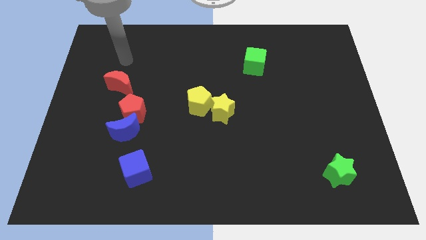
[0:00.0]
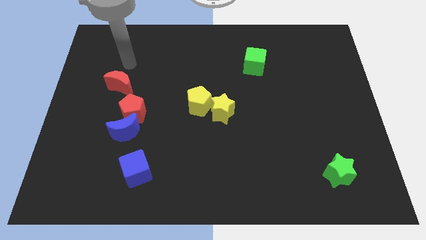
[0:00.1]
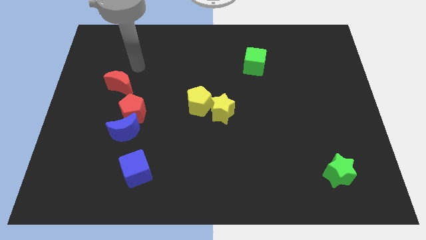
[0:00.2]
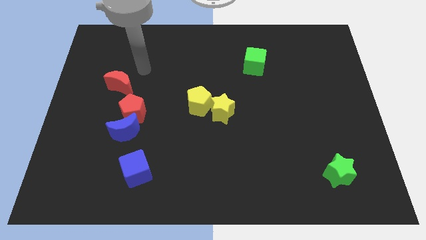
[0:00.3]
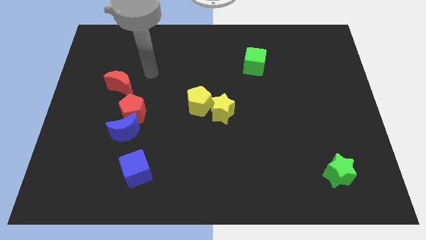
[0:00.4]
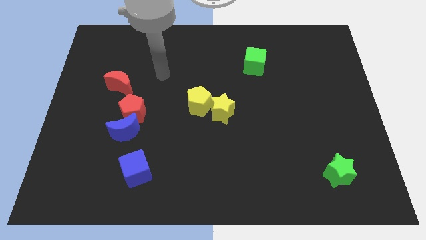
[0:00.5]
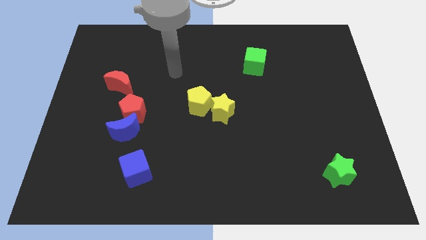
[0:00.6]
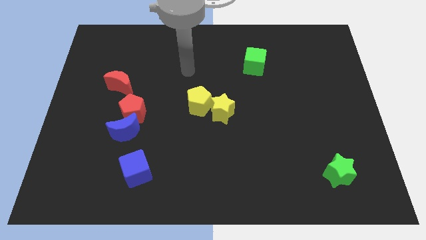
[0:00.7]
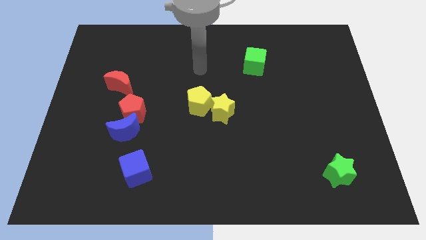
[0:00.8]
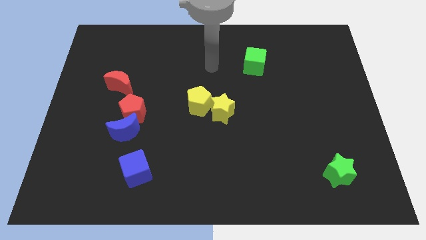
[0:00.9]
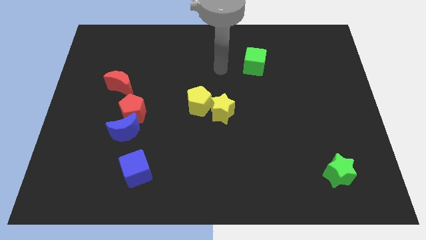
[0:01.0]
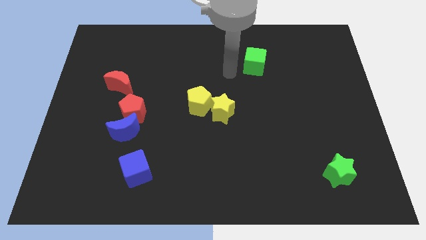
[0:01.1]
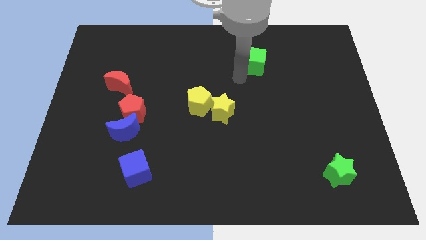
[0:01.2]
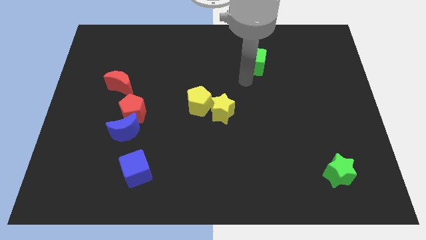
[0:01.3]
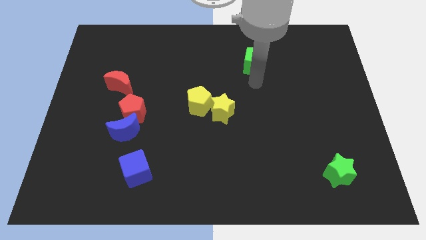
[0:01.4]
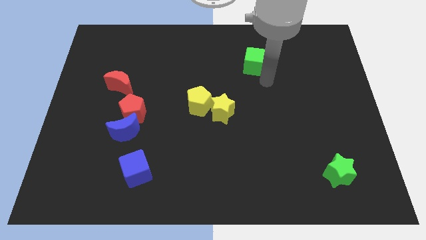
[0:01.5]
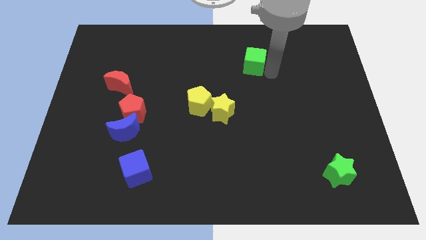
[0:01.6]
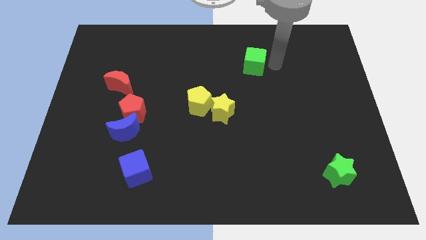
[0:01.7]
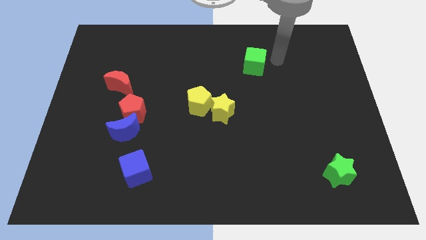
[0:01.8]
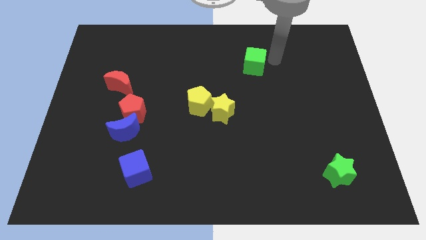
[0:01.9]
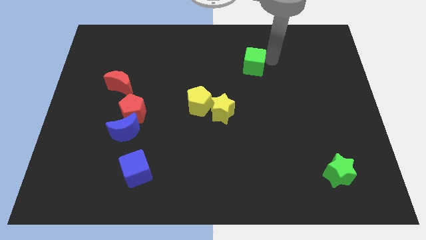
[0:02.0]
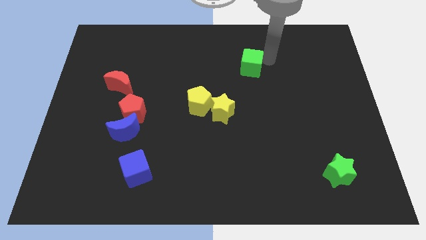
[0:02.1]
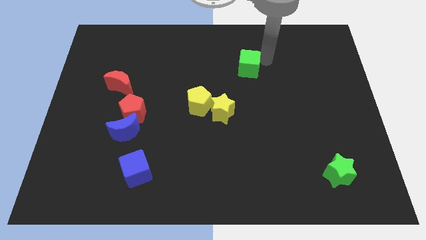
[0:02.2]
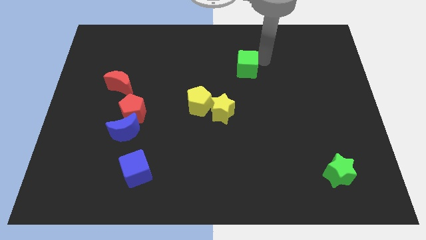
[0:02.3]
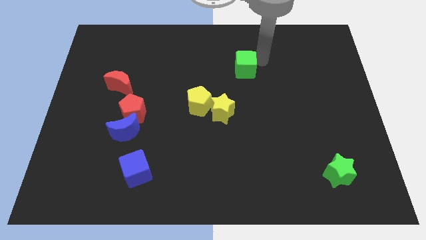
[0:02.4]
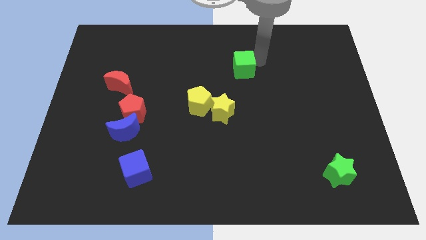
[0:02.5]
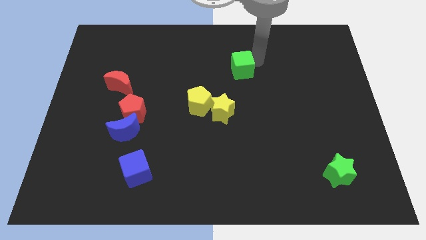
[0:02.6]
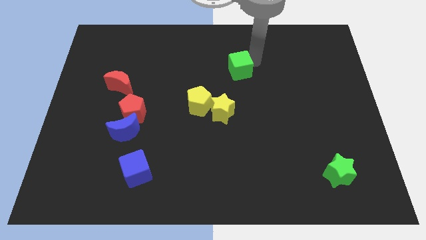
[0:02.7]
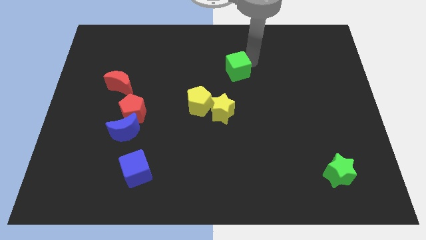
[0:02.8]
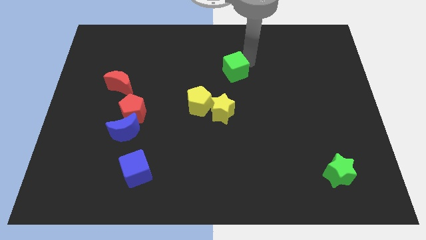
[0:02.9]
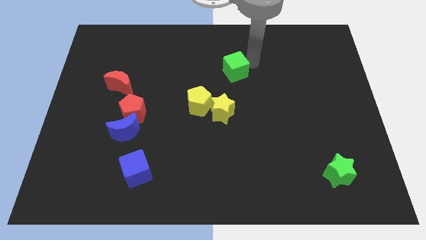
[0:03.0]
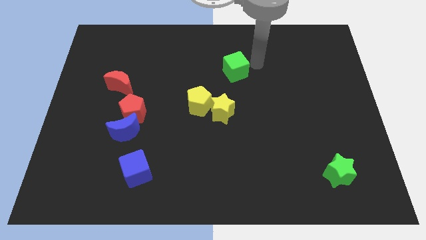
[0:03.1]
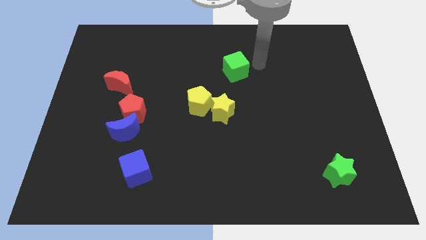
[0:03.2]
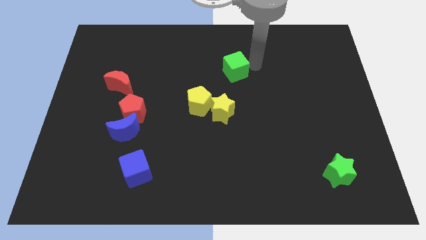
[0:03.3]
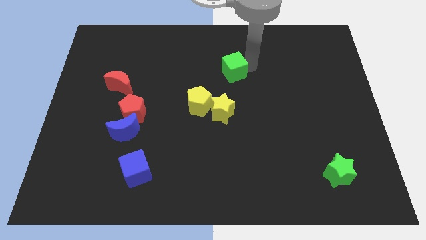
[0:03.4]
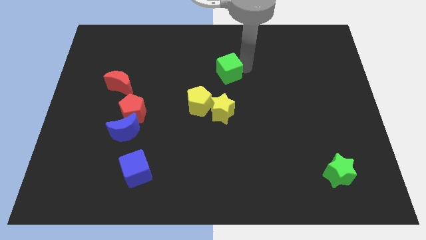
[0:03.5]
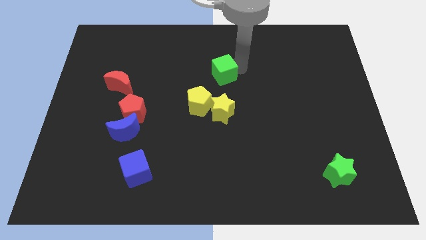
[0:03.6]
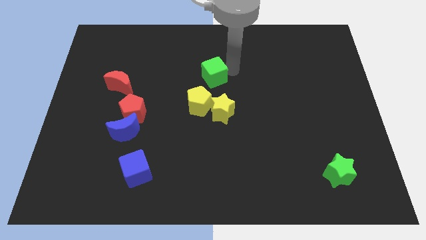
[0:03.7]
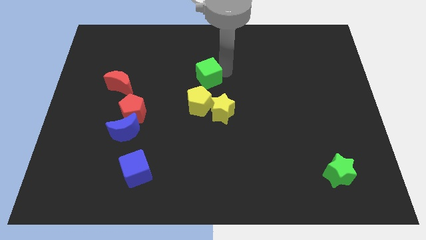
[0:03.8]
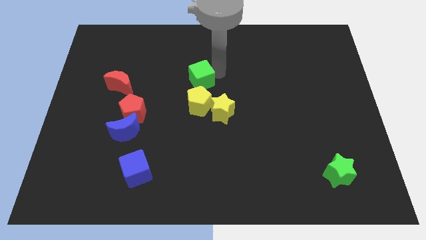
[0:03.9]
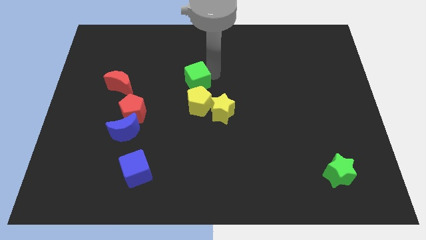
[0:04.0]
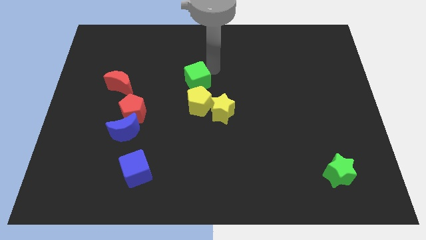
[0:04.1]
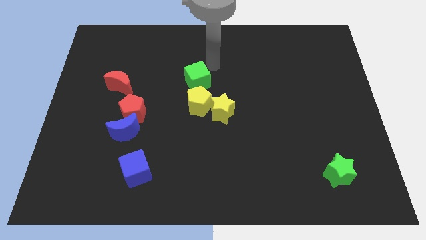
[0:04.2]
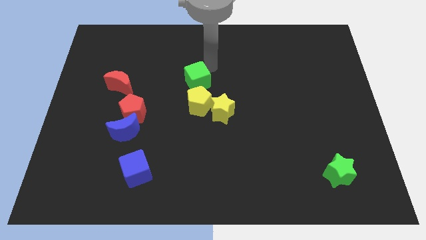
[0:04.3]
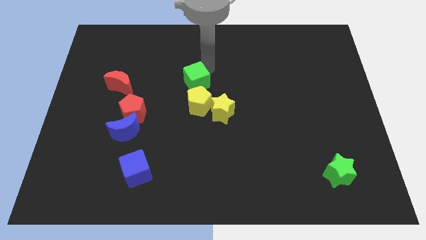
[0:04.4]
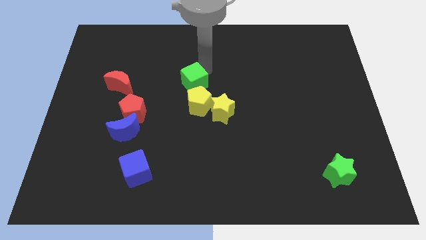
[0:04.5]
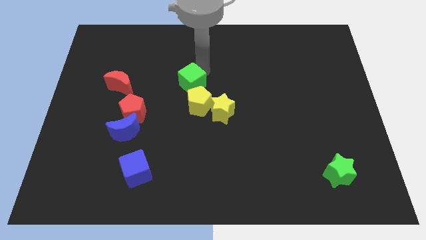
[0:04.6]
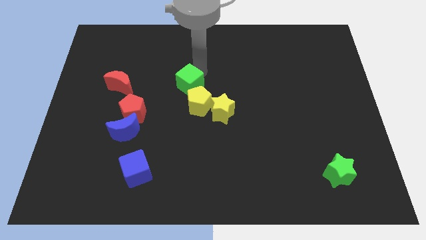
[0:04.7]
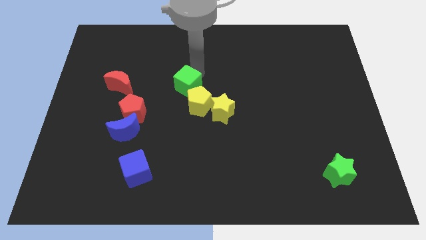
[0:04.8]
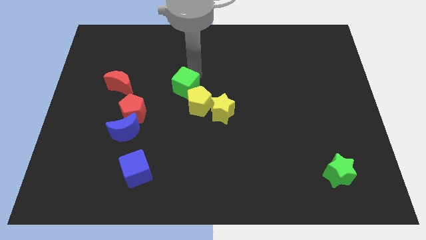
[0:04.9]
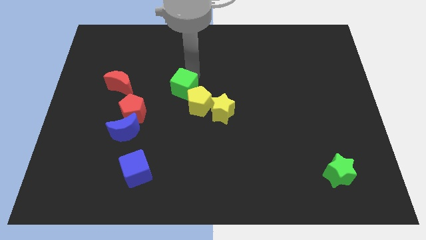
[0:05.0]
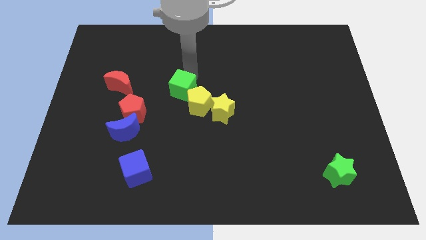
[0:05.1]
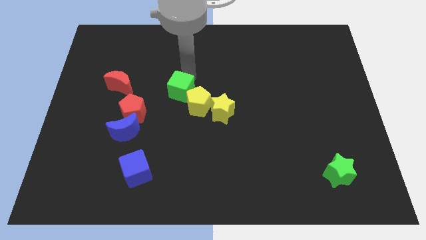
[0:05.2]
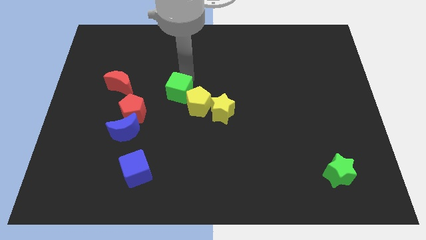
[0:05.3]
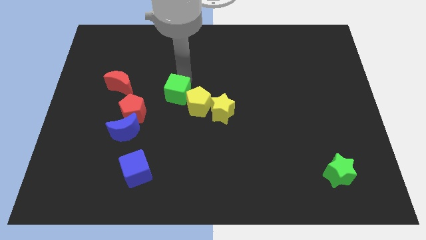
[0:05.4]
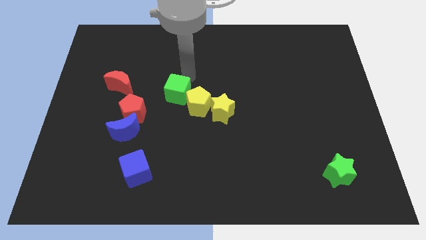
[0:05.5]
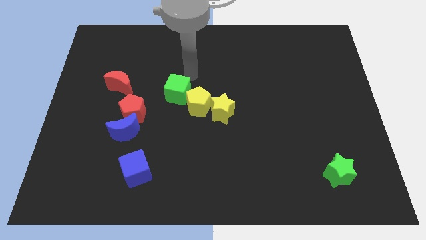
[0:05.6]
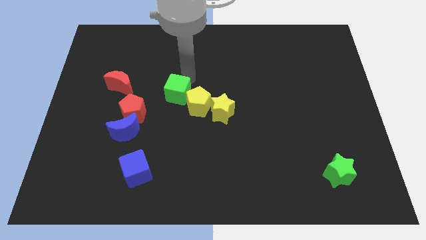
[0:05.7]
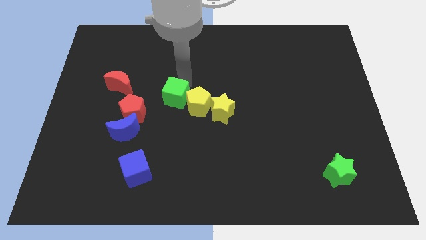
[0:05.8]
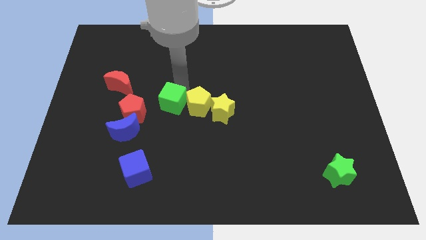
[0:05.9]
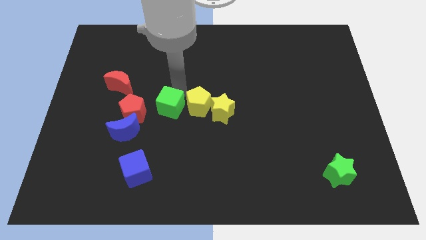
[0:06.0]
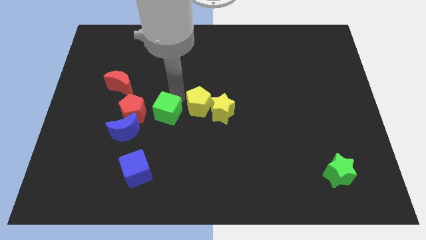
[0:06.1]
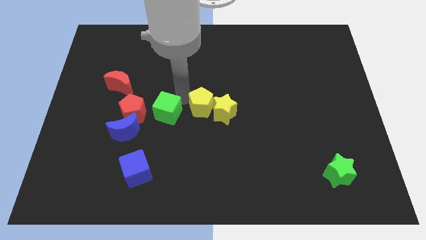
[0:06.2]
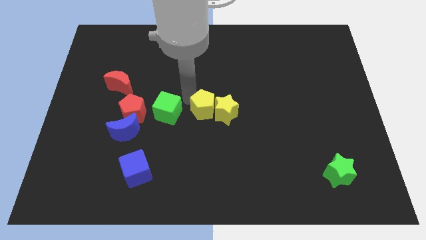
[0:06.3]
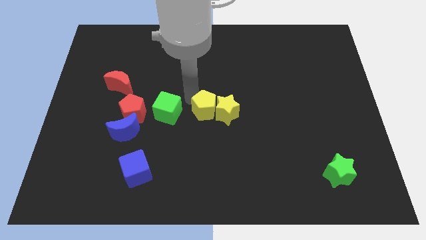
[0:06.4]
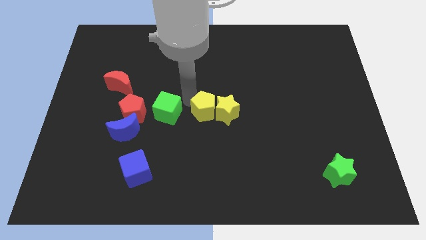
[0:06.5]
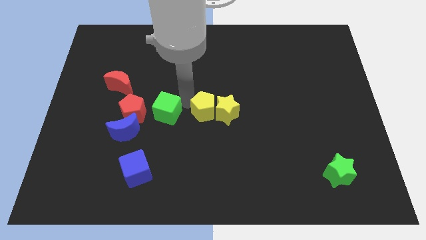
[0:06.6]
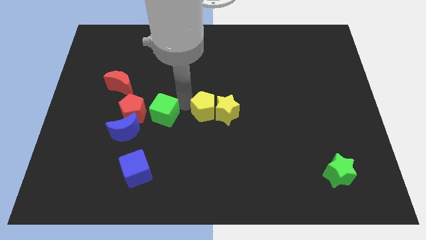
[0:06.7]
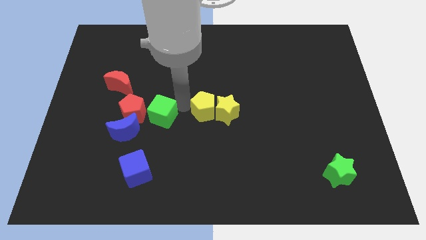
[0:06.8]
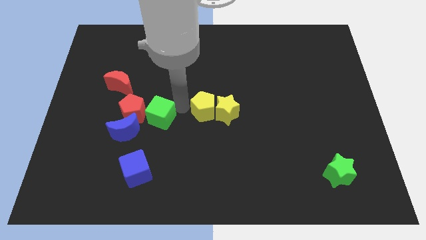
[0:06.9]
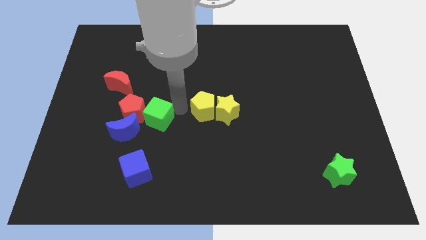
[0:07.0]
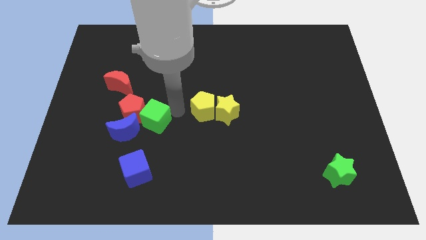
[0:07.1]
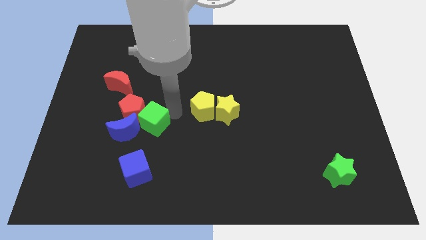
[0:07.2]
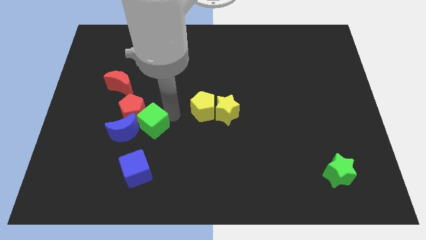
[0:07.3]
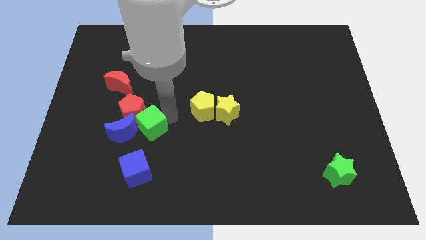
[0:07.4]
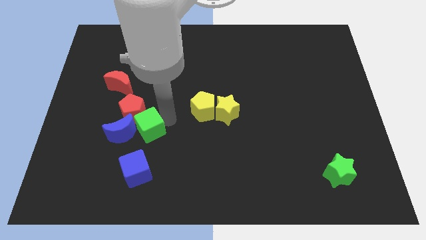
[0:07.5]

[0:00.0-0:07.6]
put the green cube towards the blue moon
